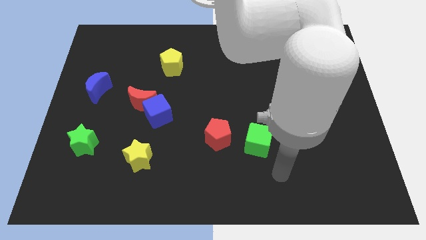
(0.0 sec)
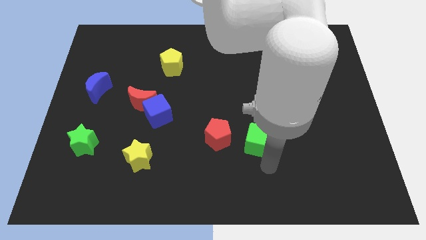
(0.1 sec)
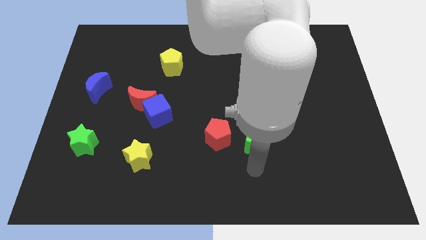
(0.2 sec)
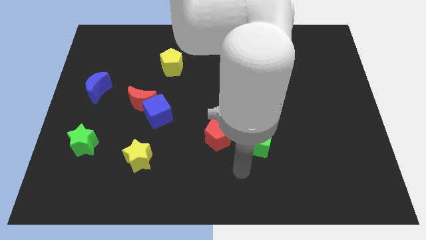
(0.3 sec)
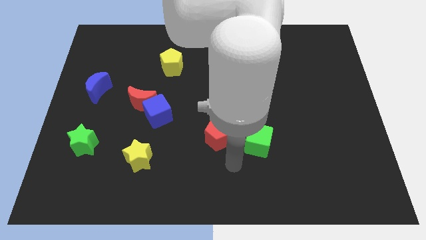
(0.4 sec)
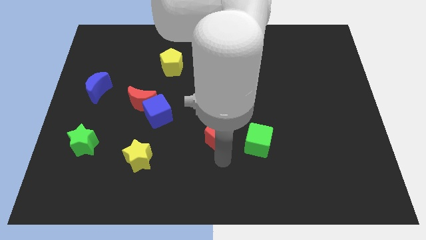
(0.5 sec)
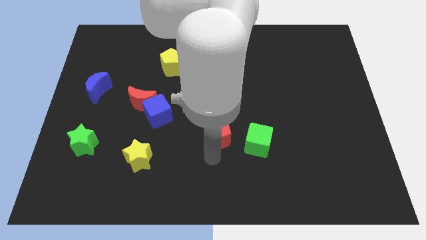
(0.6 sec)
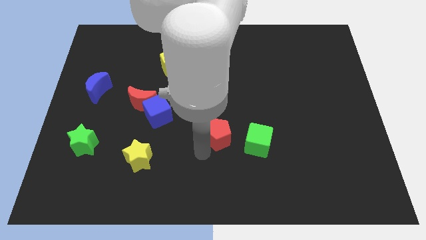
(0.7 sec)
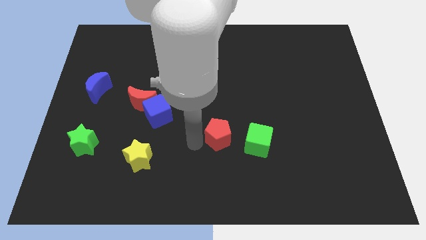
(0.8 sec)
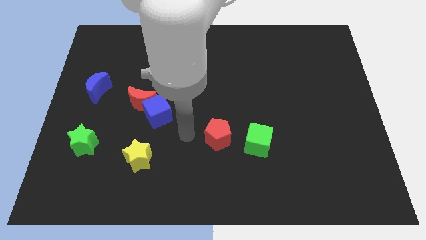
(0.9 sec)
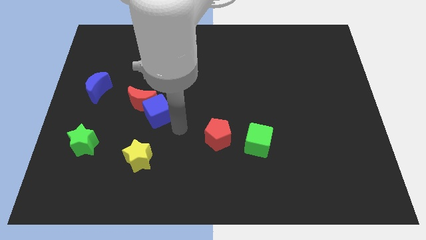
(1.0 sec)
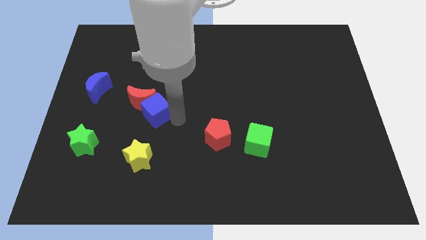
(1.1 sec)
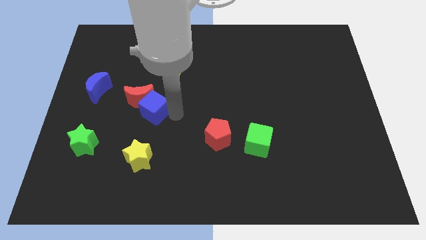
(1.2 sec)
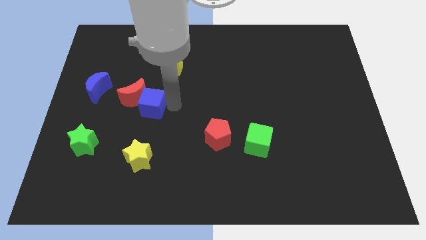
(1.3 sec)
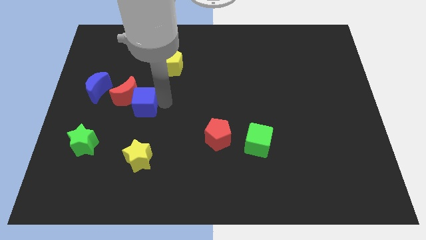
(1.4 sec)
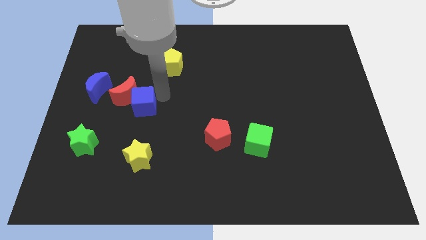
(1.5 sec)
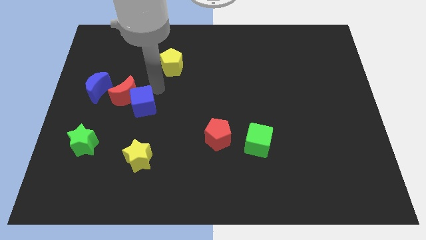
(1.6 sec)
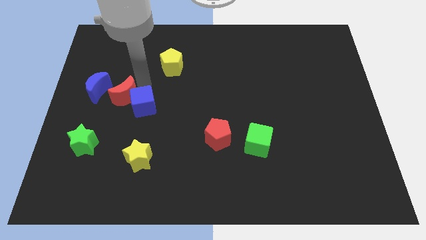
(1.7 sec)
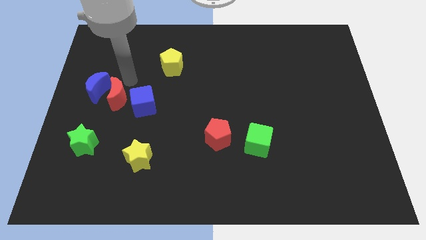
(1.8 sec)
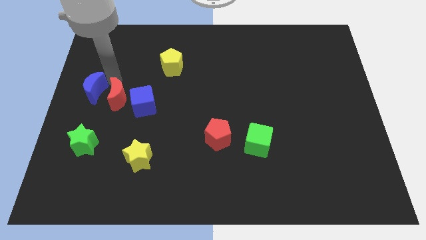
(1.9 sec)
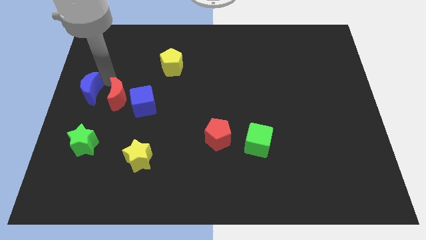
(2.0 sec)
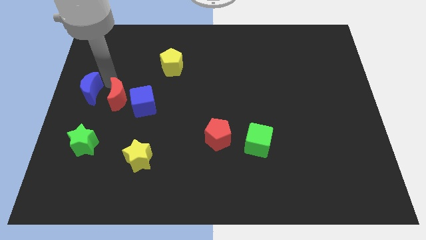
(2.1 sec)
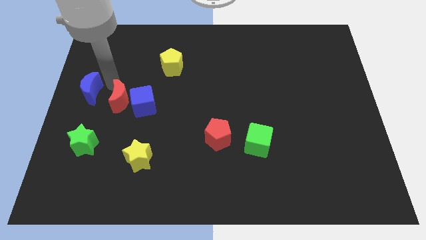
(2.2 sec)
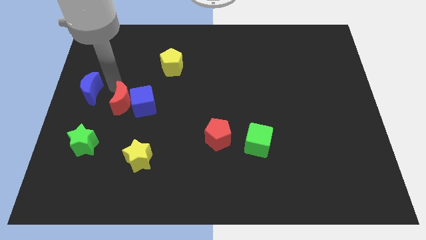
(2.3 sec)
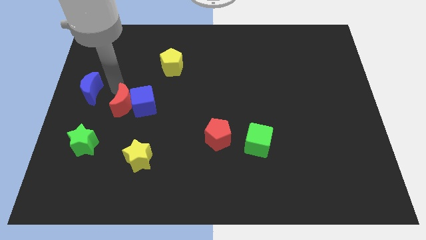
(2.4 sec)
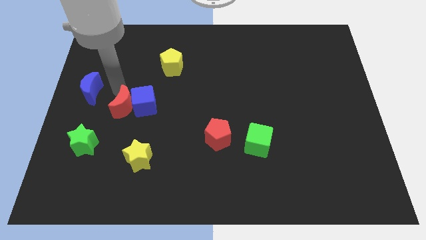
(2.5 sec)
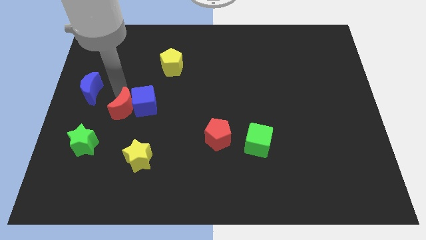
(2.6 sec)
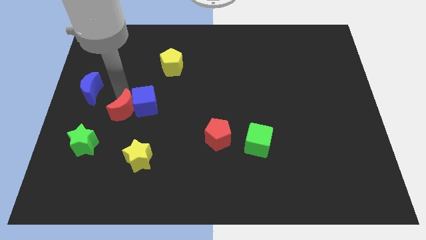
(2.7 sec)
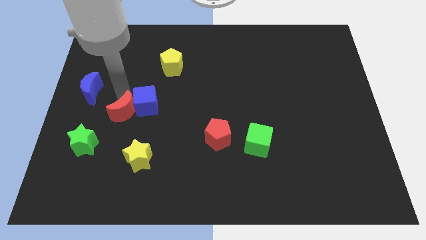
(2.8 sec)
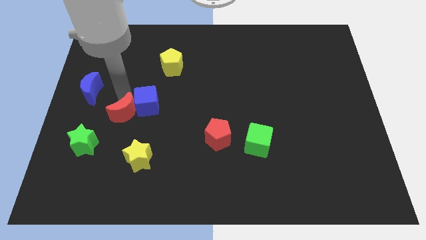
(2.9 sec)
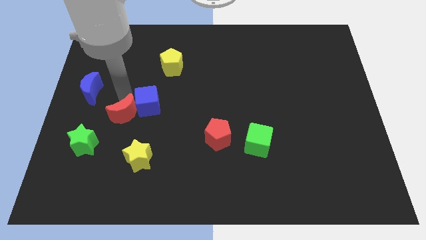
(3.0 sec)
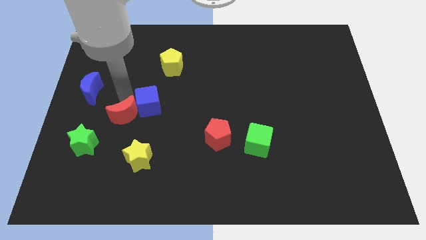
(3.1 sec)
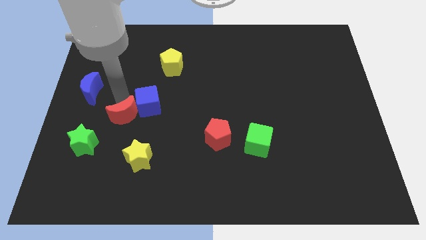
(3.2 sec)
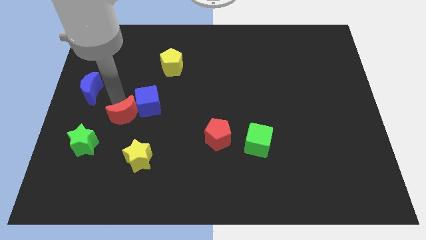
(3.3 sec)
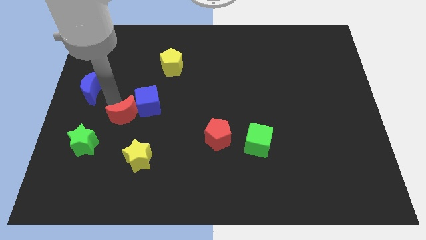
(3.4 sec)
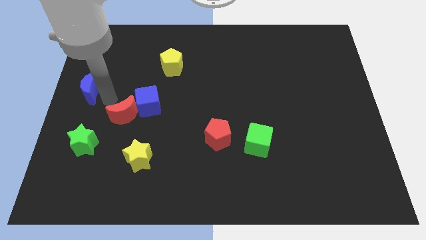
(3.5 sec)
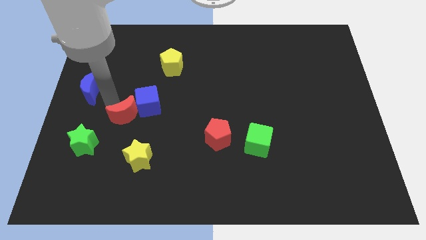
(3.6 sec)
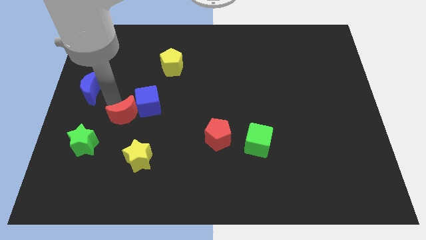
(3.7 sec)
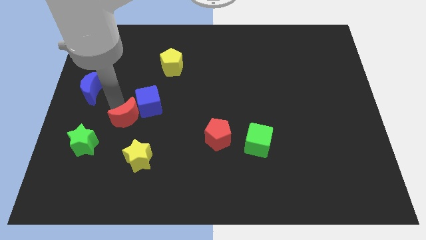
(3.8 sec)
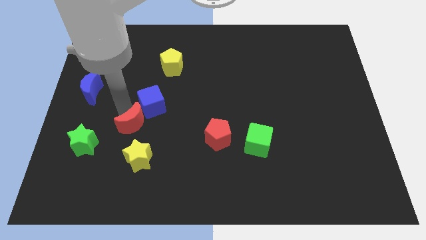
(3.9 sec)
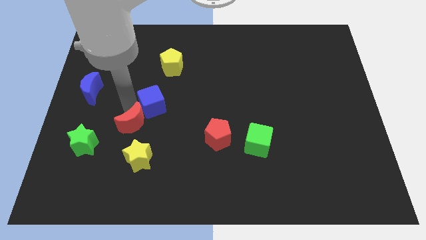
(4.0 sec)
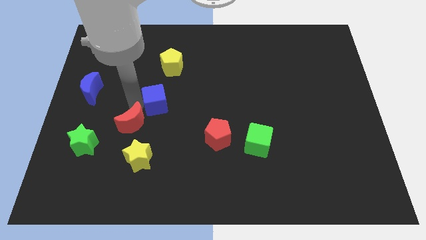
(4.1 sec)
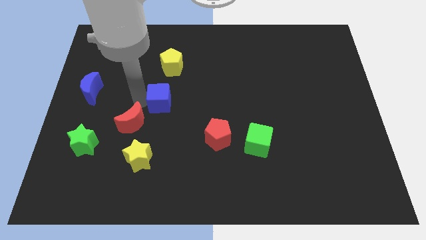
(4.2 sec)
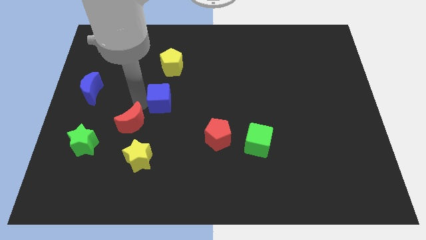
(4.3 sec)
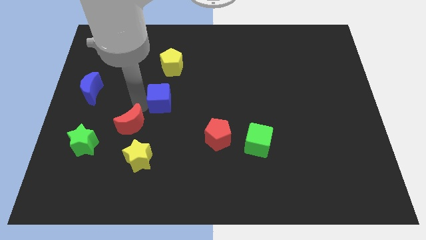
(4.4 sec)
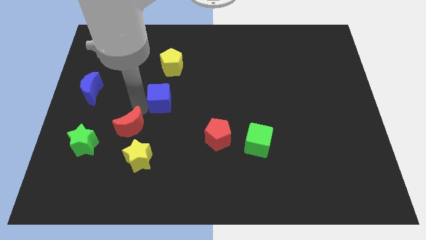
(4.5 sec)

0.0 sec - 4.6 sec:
slightly push the red moon down

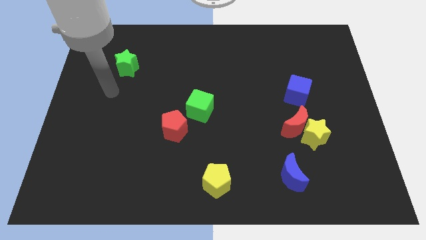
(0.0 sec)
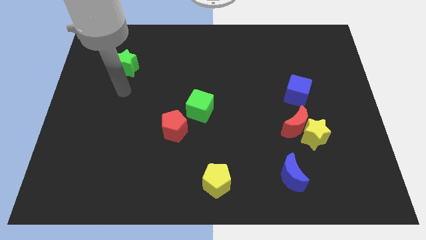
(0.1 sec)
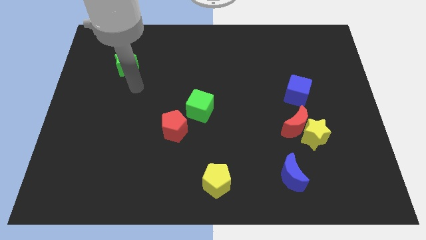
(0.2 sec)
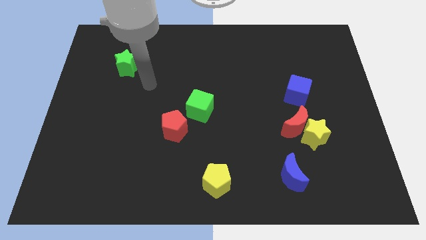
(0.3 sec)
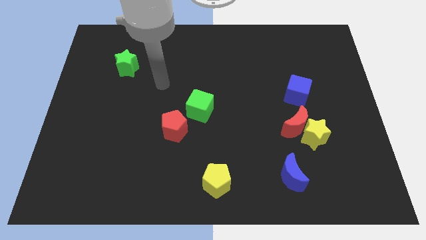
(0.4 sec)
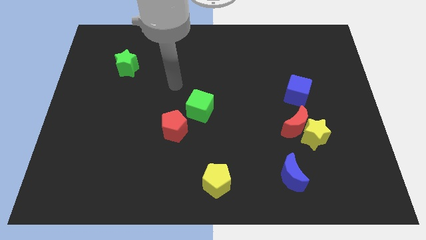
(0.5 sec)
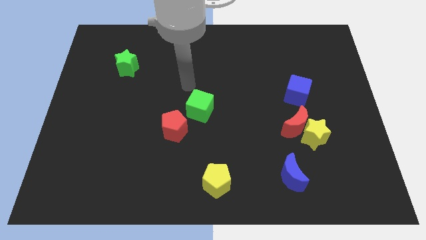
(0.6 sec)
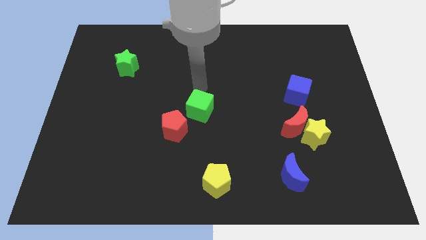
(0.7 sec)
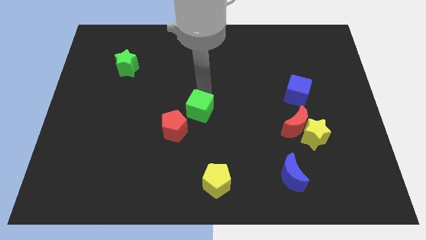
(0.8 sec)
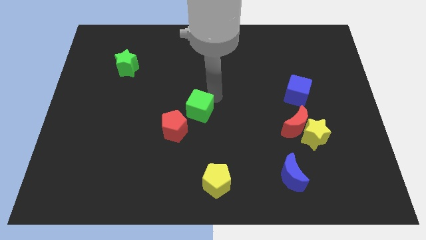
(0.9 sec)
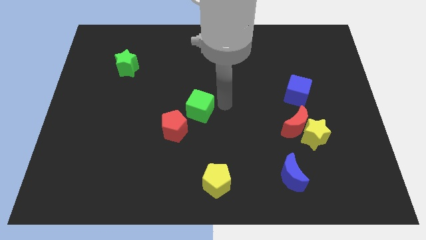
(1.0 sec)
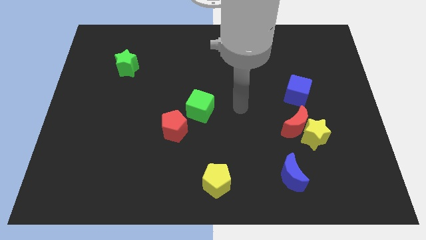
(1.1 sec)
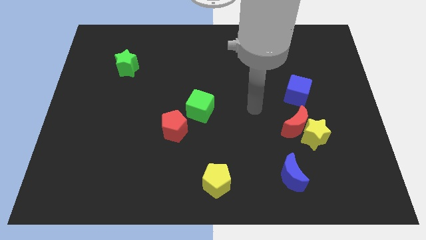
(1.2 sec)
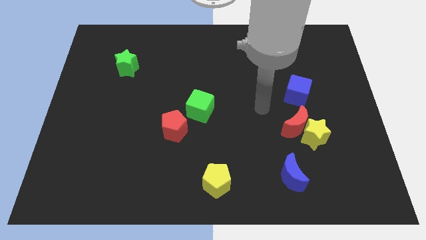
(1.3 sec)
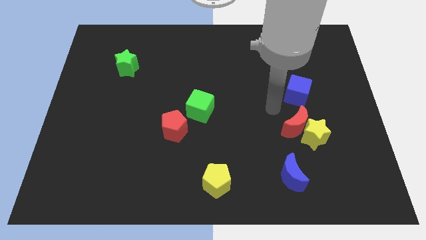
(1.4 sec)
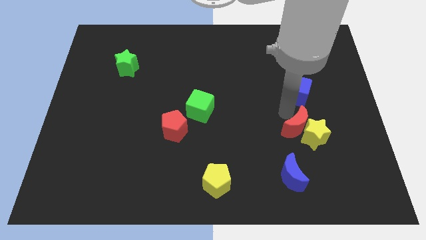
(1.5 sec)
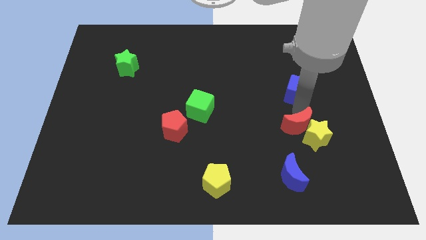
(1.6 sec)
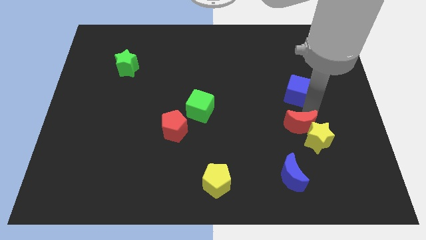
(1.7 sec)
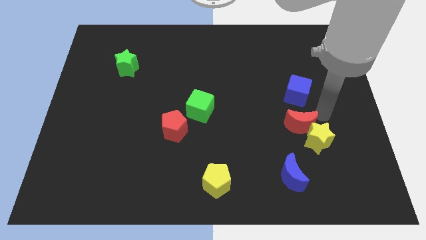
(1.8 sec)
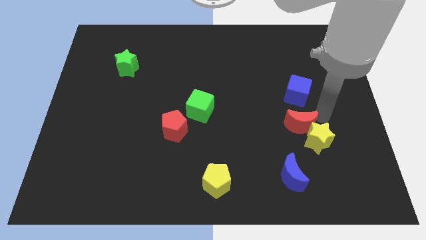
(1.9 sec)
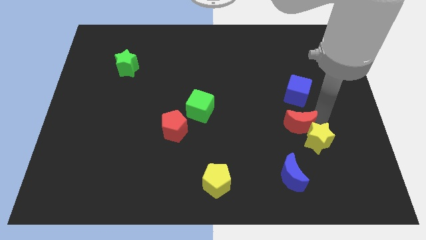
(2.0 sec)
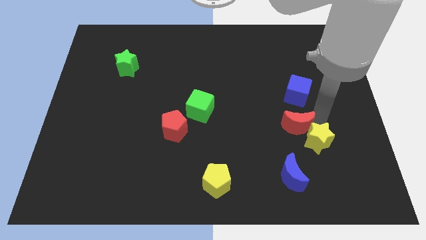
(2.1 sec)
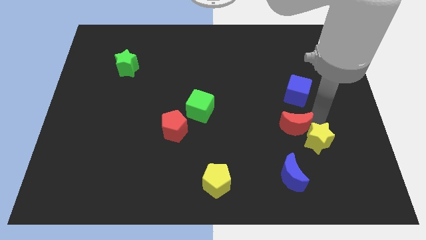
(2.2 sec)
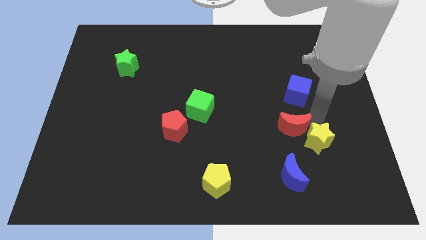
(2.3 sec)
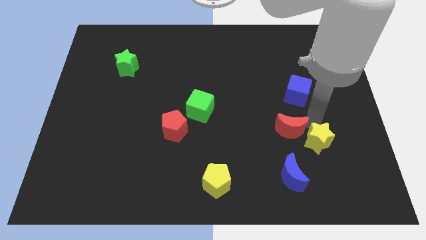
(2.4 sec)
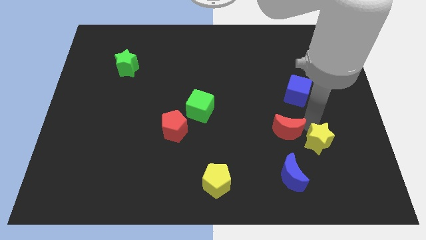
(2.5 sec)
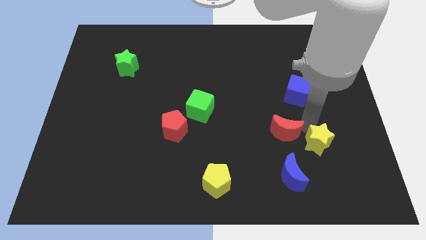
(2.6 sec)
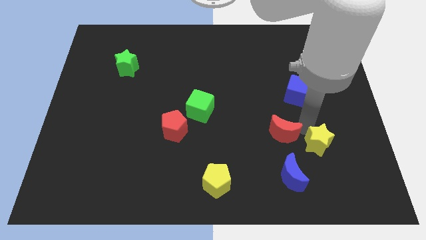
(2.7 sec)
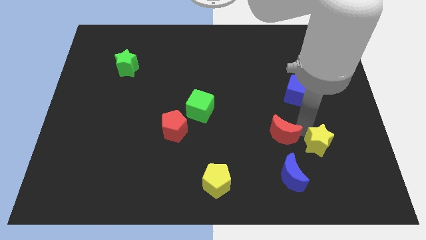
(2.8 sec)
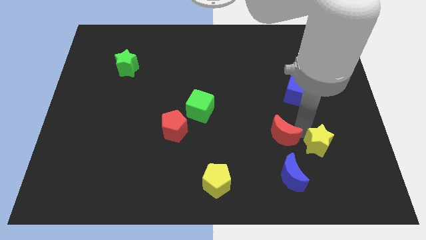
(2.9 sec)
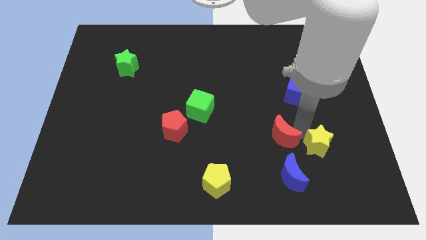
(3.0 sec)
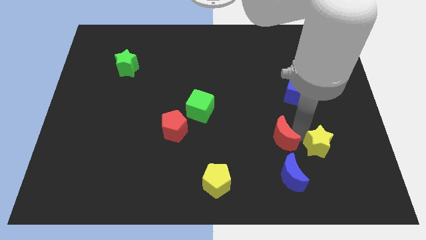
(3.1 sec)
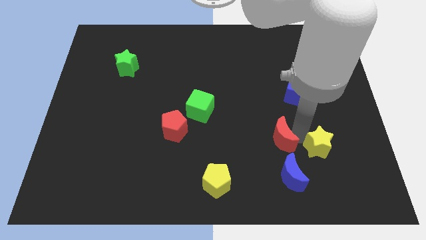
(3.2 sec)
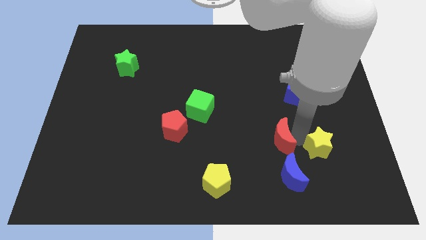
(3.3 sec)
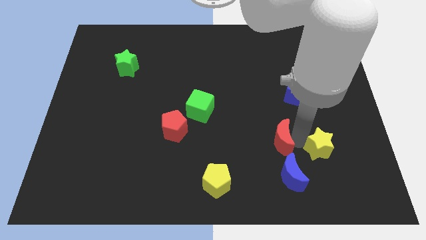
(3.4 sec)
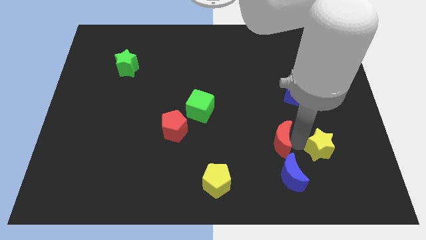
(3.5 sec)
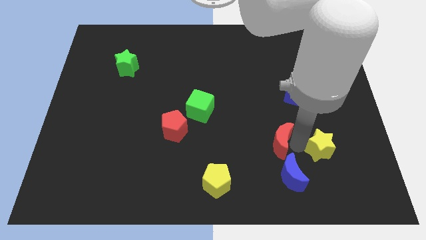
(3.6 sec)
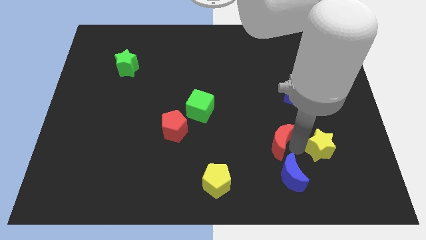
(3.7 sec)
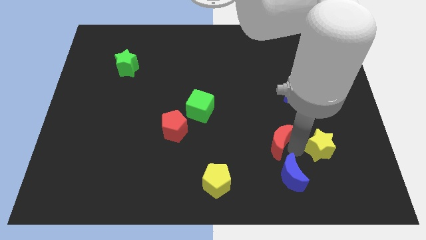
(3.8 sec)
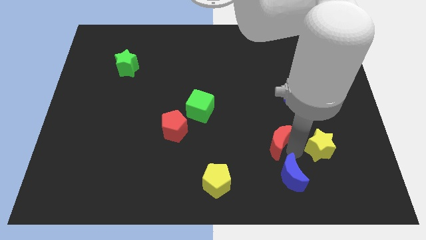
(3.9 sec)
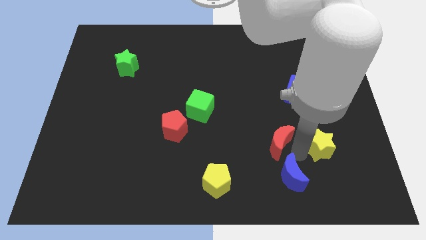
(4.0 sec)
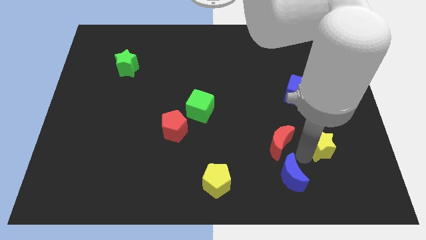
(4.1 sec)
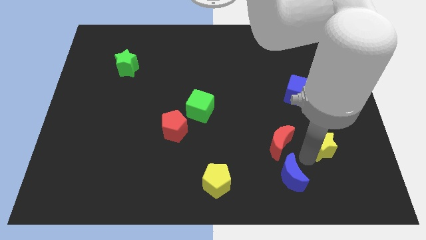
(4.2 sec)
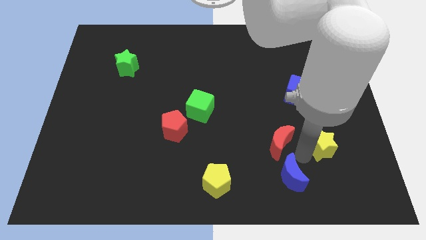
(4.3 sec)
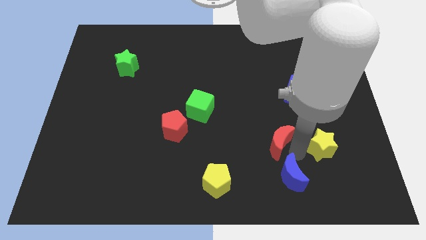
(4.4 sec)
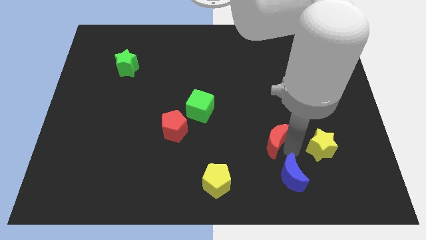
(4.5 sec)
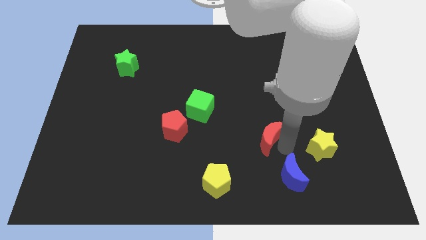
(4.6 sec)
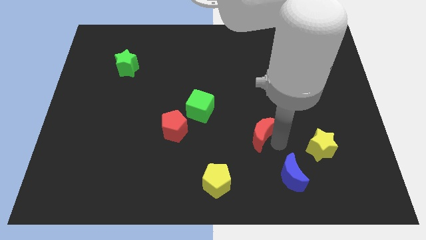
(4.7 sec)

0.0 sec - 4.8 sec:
push the red moon left a little
